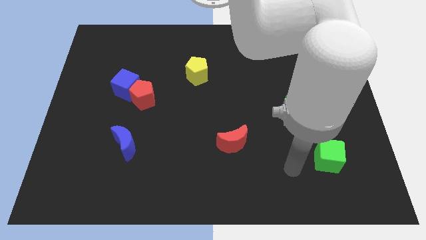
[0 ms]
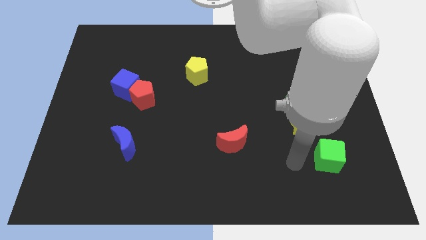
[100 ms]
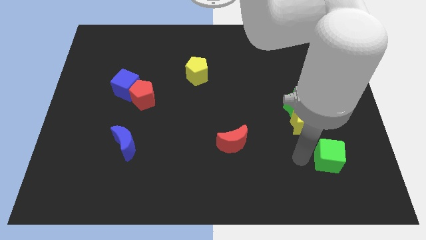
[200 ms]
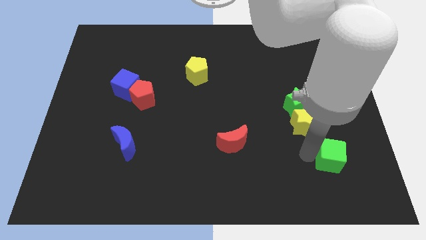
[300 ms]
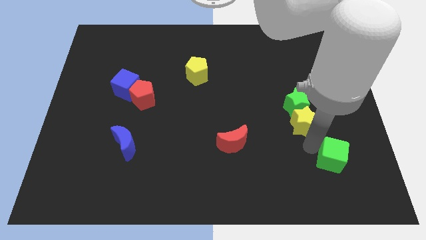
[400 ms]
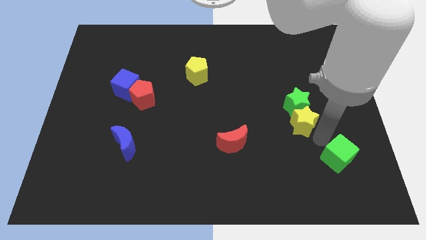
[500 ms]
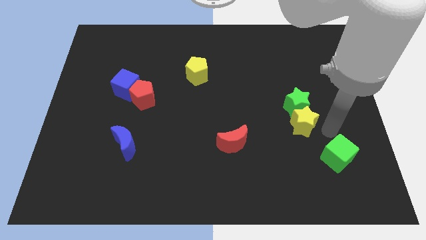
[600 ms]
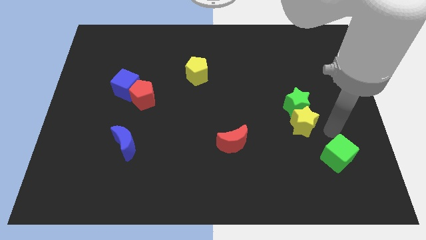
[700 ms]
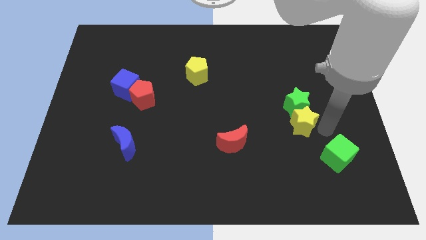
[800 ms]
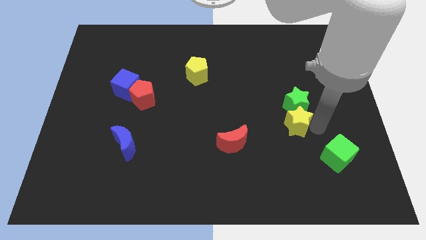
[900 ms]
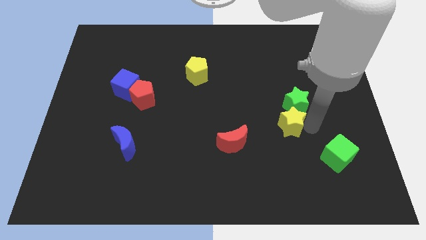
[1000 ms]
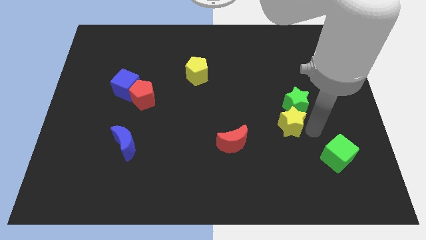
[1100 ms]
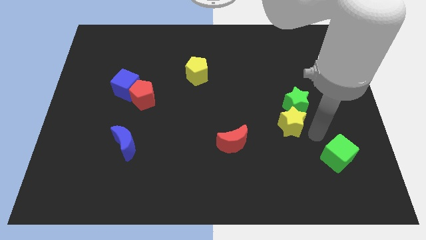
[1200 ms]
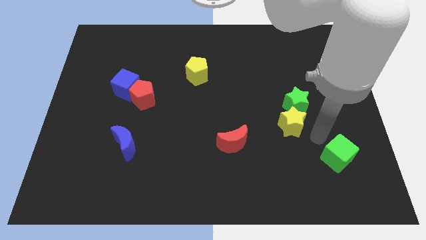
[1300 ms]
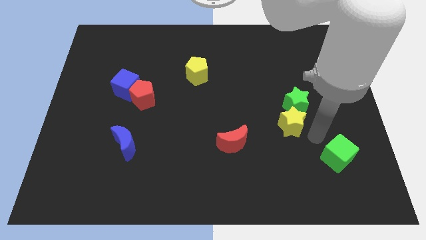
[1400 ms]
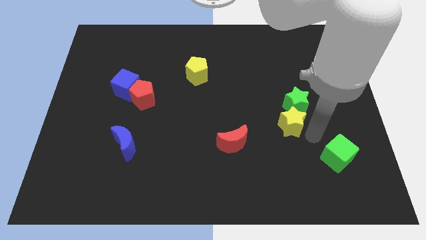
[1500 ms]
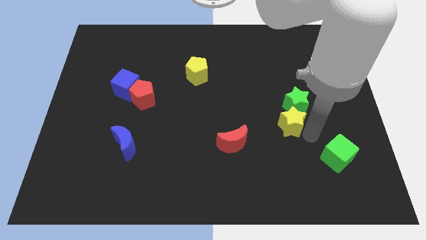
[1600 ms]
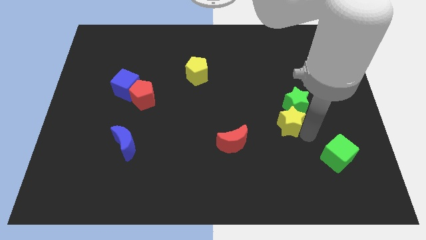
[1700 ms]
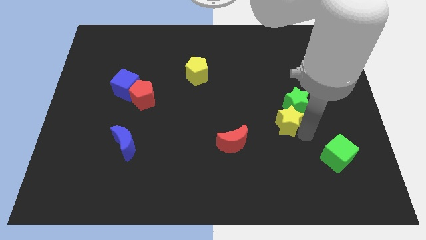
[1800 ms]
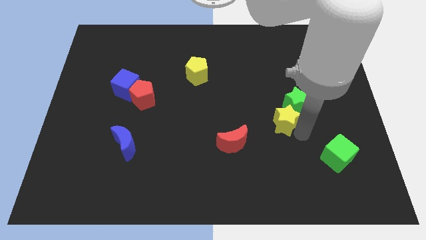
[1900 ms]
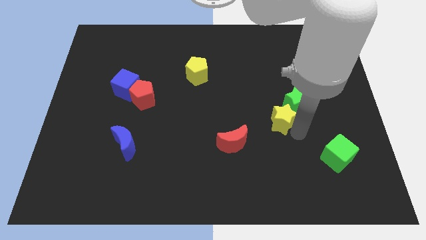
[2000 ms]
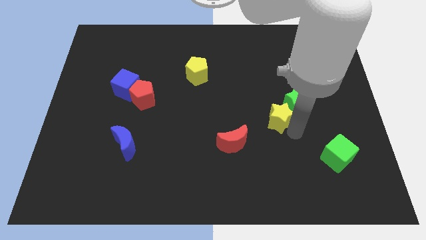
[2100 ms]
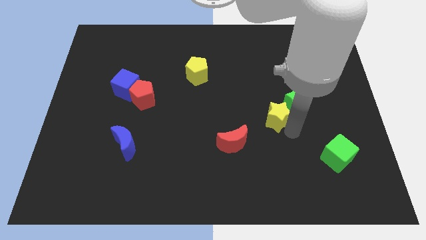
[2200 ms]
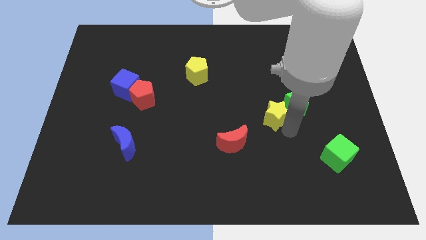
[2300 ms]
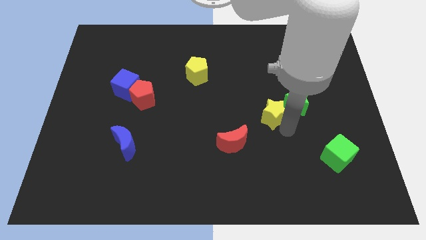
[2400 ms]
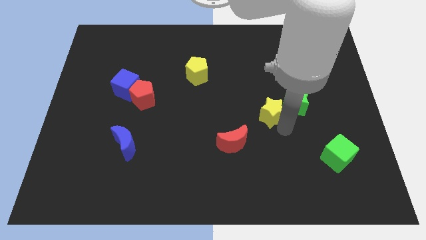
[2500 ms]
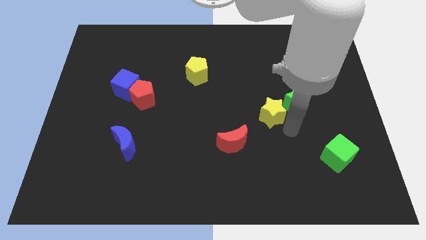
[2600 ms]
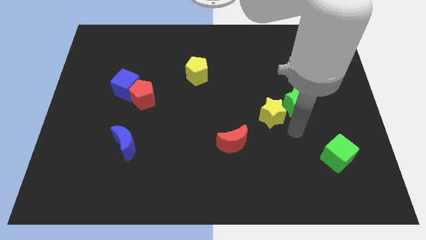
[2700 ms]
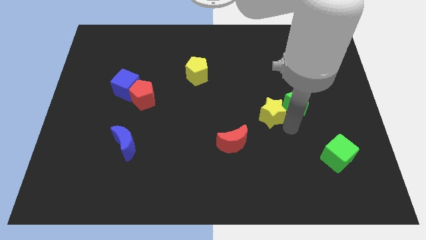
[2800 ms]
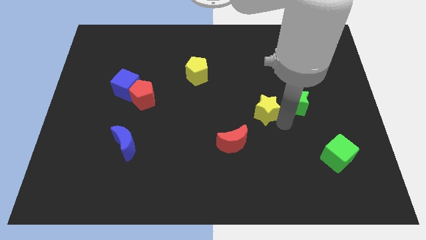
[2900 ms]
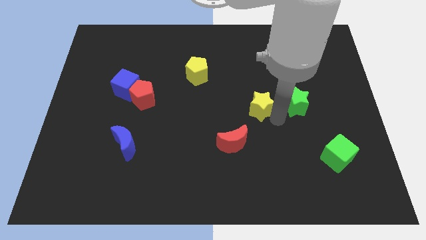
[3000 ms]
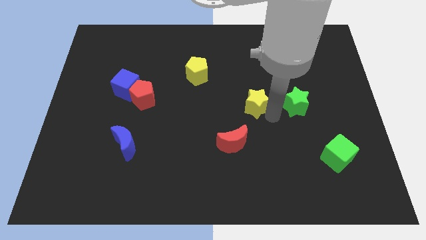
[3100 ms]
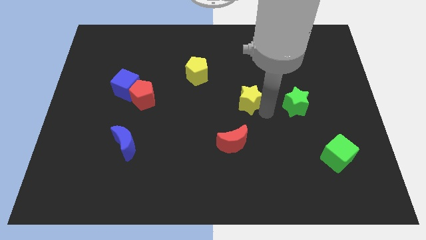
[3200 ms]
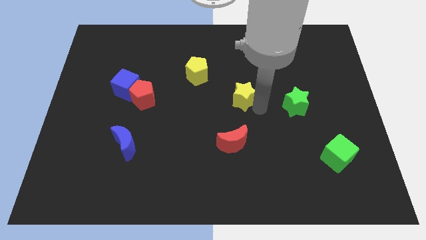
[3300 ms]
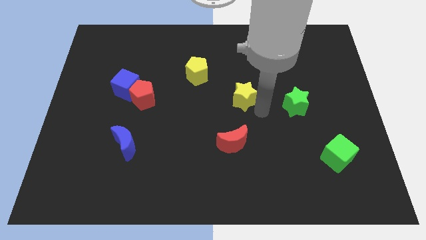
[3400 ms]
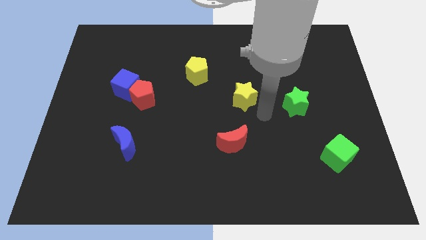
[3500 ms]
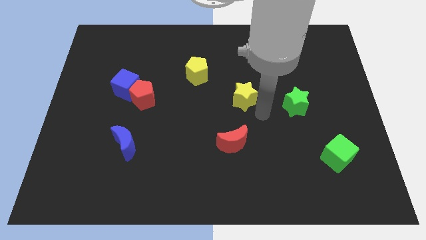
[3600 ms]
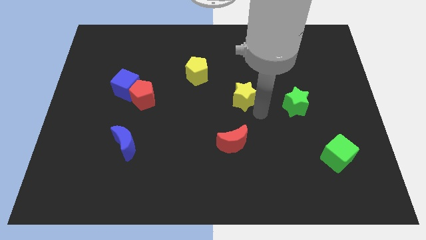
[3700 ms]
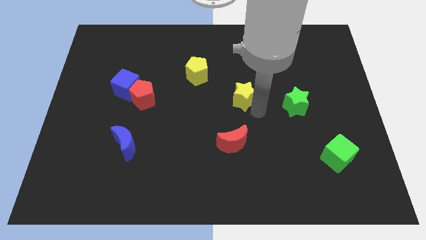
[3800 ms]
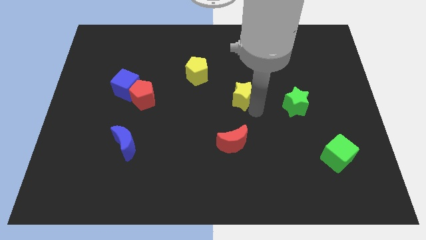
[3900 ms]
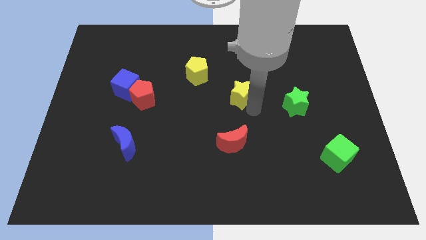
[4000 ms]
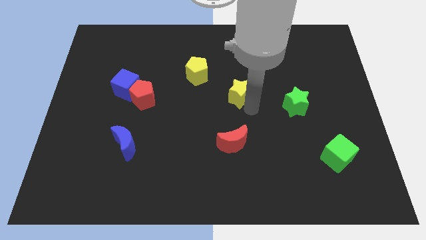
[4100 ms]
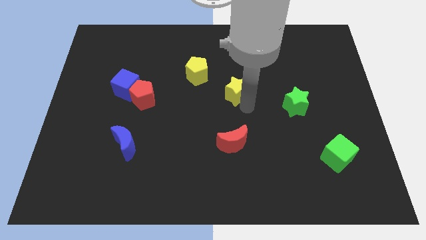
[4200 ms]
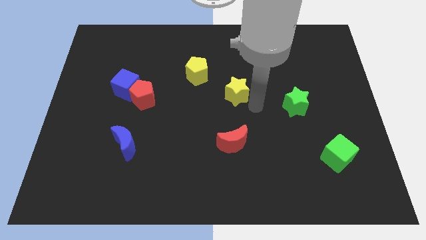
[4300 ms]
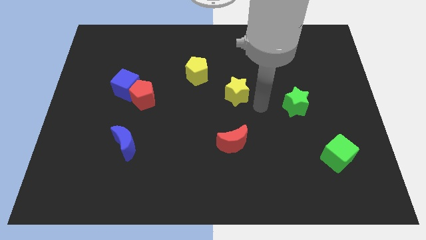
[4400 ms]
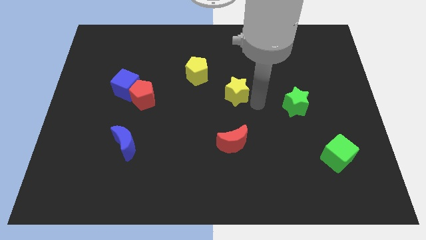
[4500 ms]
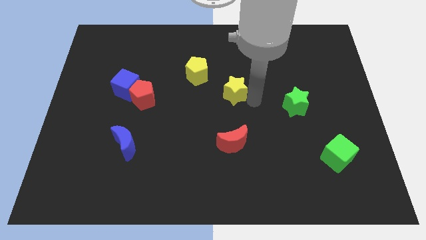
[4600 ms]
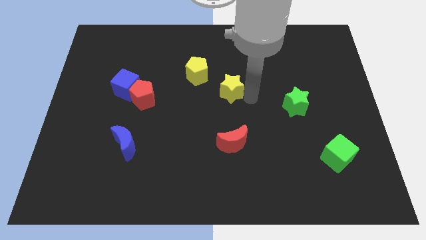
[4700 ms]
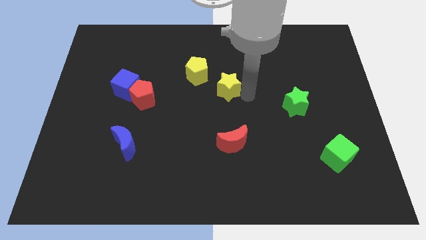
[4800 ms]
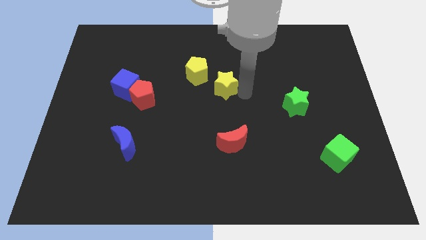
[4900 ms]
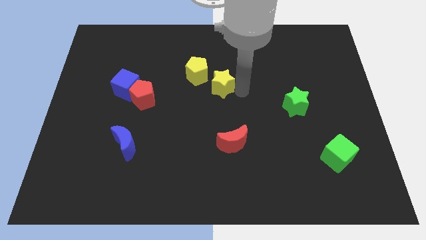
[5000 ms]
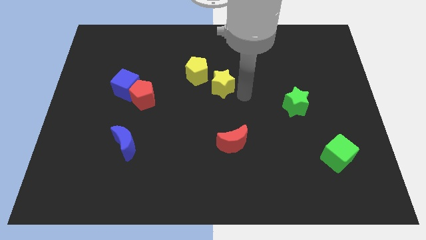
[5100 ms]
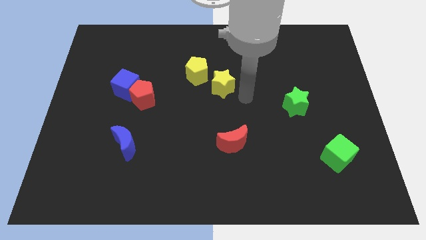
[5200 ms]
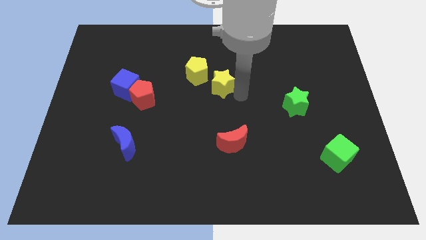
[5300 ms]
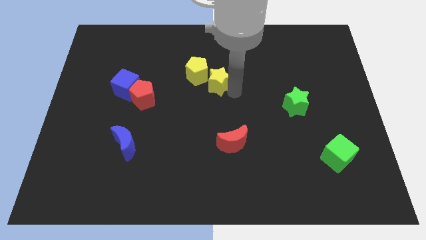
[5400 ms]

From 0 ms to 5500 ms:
slide the yellow star close to the yellow pentagon

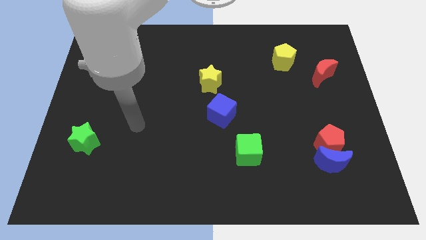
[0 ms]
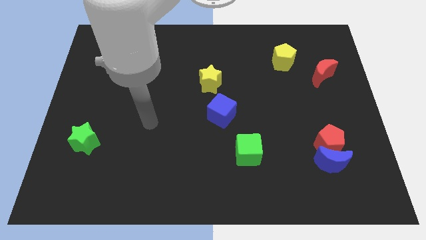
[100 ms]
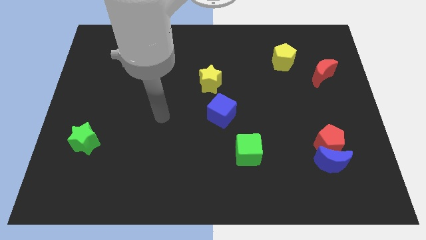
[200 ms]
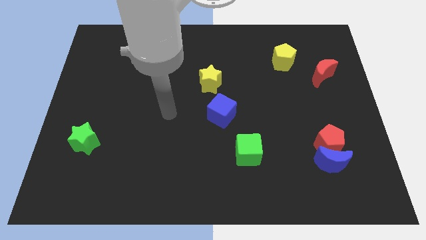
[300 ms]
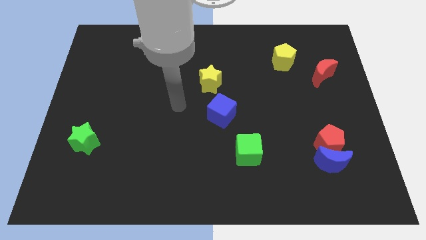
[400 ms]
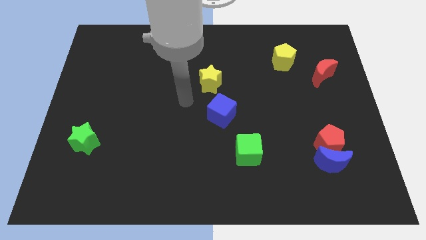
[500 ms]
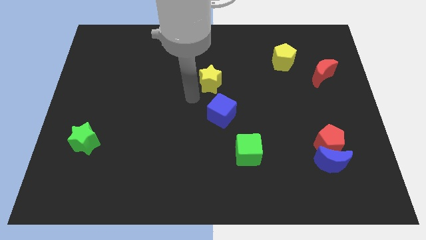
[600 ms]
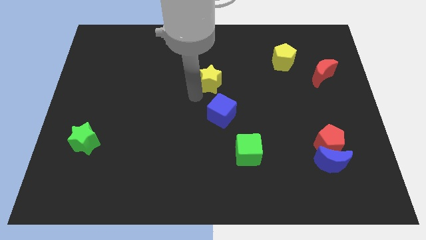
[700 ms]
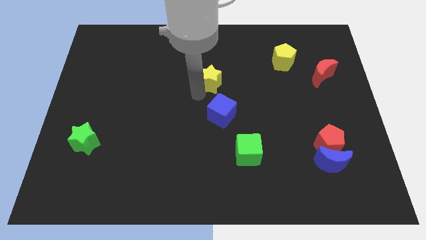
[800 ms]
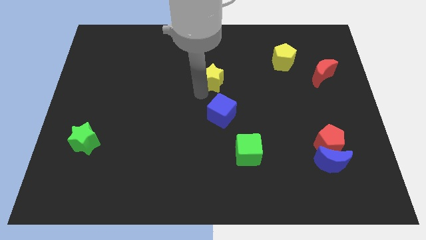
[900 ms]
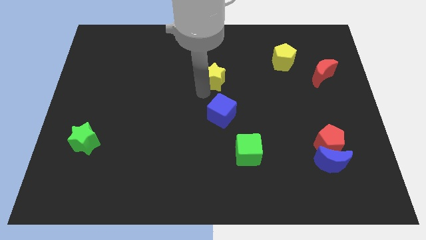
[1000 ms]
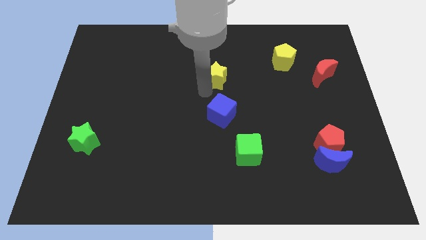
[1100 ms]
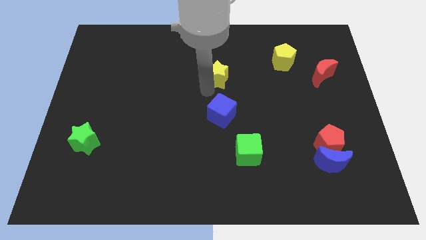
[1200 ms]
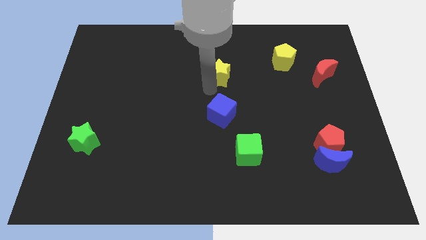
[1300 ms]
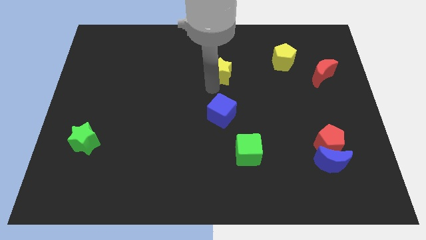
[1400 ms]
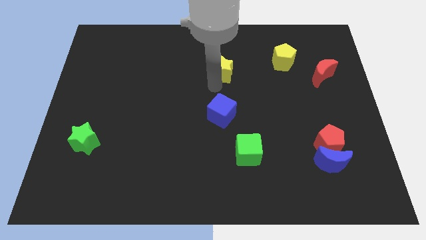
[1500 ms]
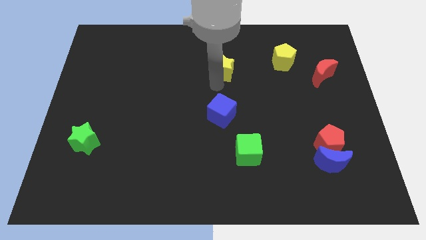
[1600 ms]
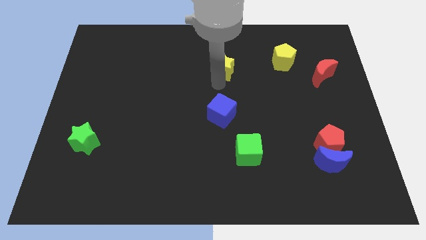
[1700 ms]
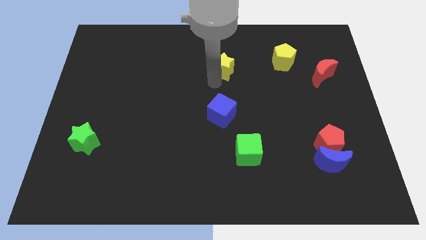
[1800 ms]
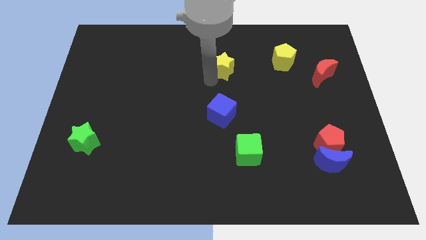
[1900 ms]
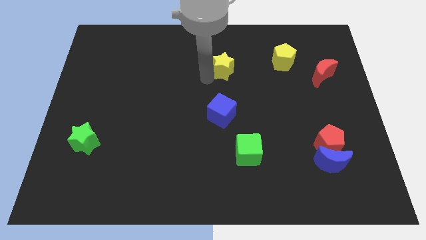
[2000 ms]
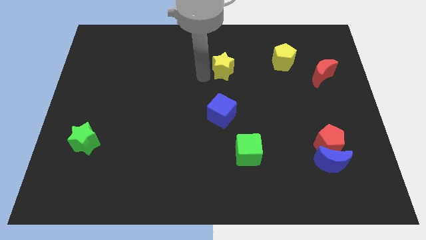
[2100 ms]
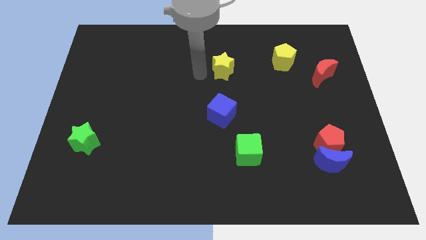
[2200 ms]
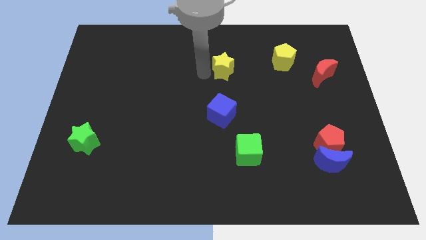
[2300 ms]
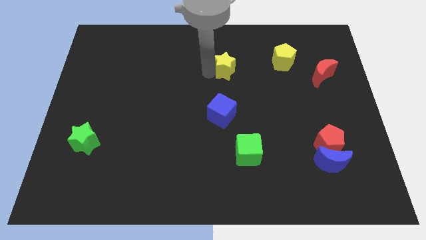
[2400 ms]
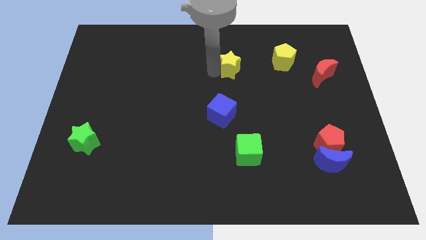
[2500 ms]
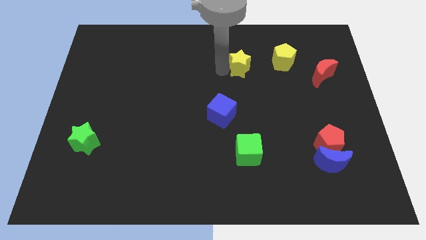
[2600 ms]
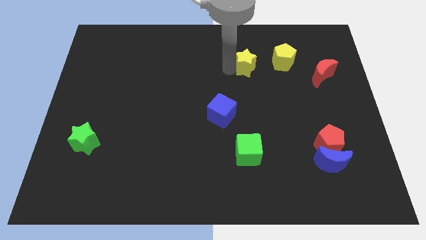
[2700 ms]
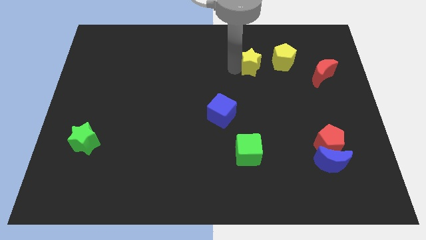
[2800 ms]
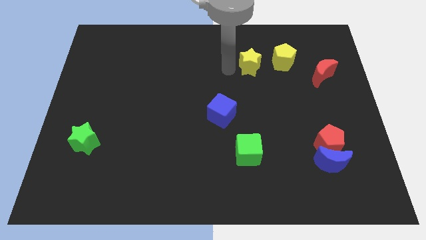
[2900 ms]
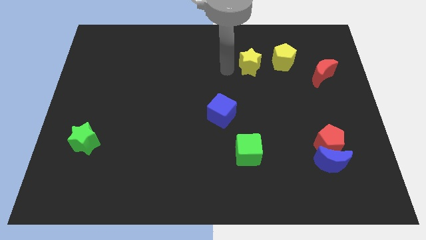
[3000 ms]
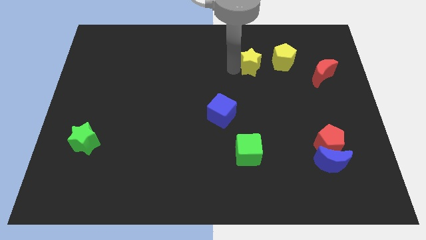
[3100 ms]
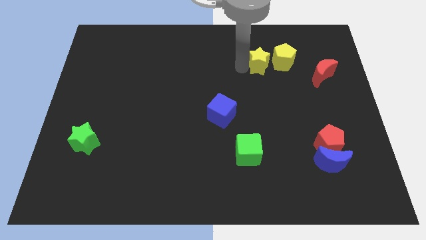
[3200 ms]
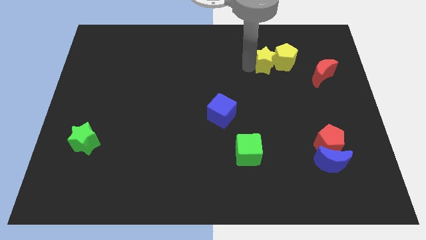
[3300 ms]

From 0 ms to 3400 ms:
slide the yellow star to the yellow pentagon
